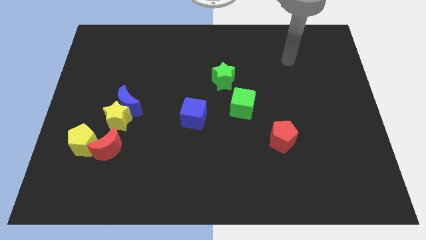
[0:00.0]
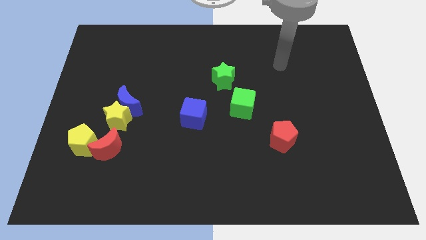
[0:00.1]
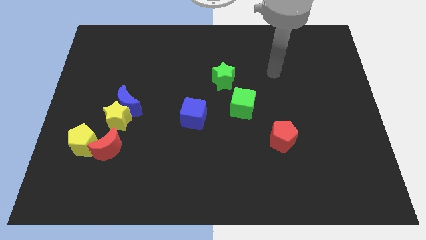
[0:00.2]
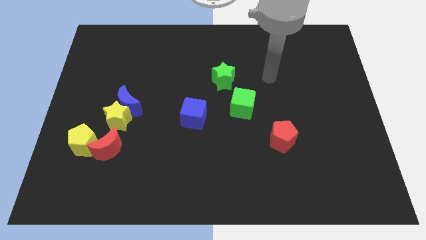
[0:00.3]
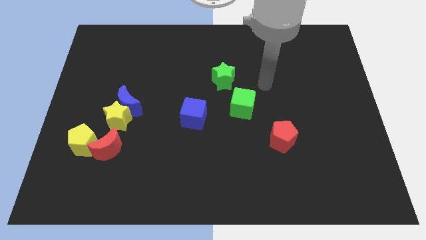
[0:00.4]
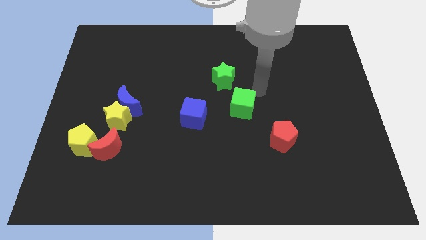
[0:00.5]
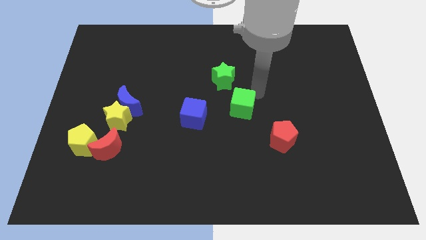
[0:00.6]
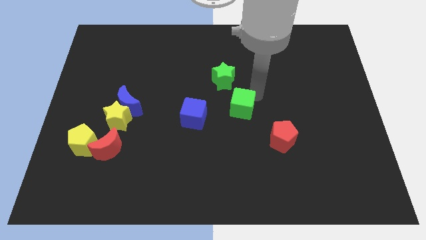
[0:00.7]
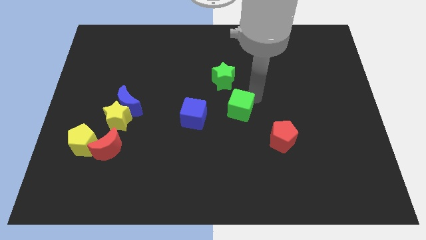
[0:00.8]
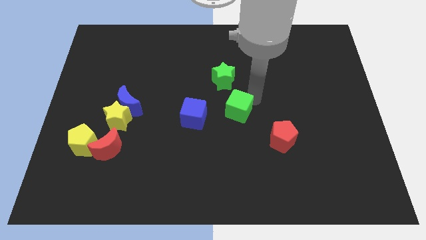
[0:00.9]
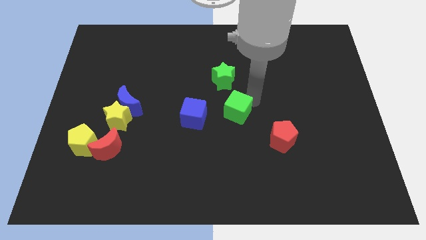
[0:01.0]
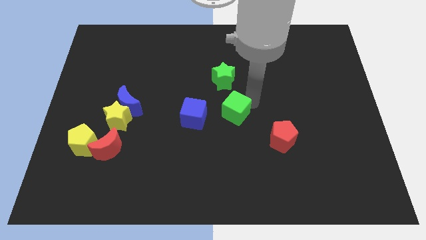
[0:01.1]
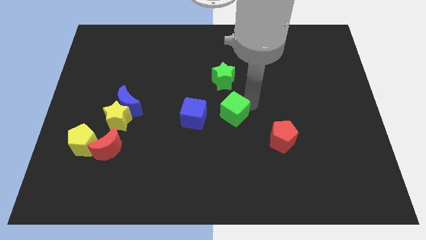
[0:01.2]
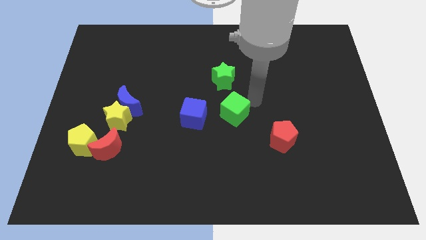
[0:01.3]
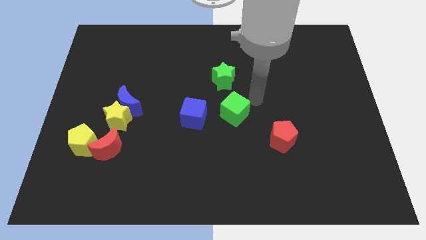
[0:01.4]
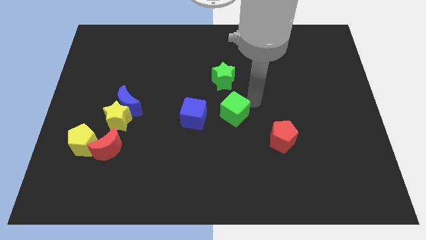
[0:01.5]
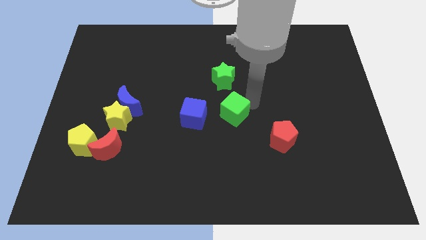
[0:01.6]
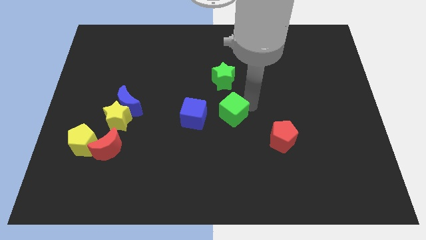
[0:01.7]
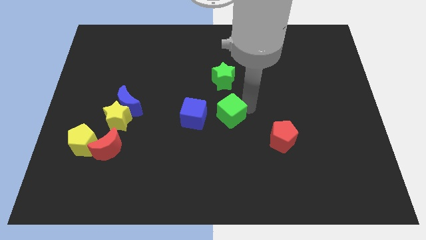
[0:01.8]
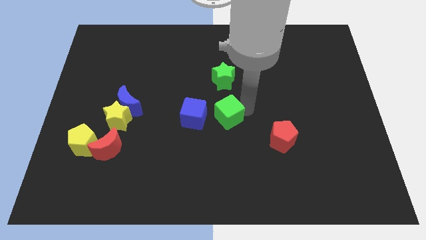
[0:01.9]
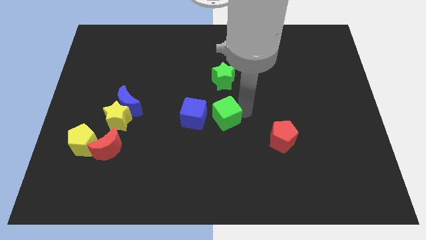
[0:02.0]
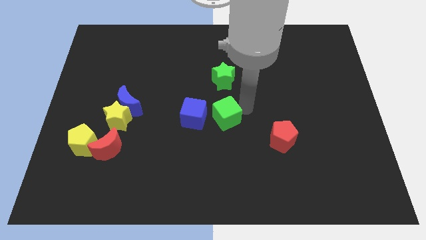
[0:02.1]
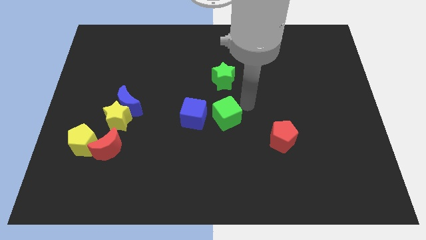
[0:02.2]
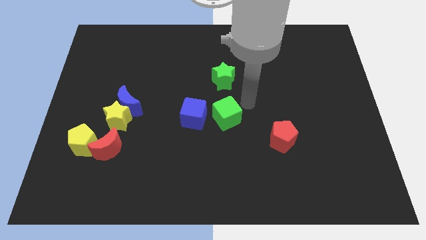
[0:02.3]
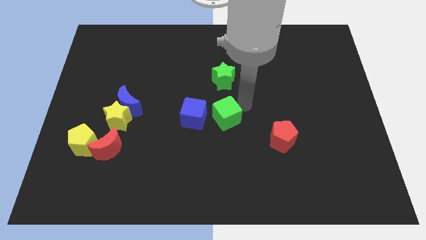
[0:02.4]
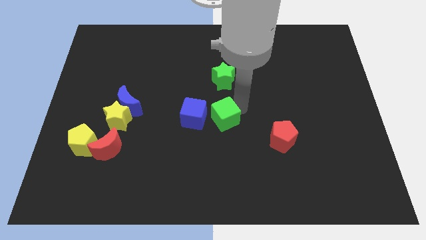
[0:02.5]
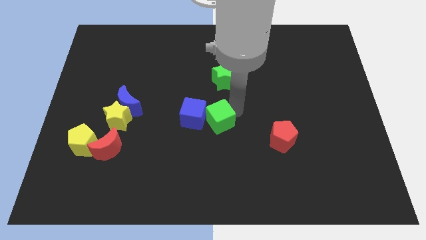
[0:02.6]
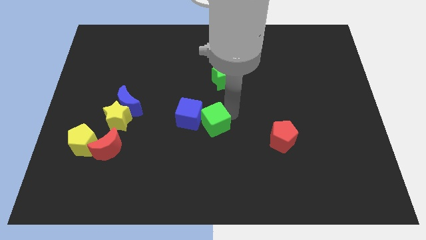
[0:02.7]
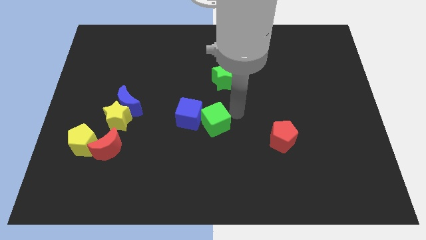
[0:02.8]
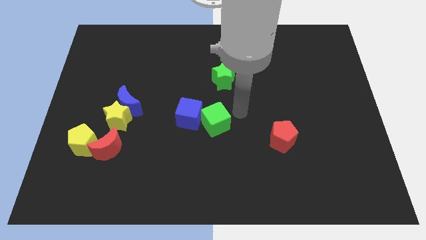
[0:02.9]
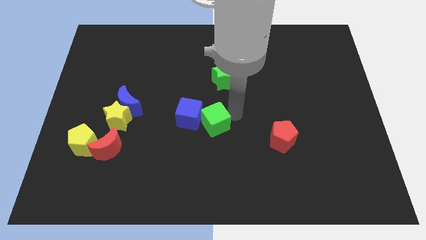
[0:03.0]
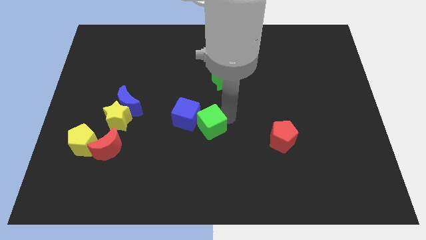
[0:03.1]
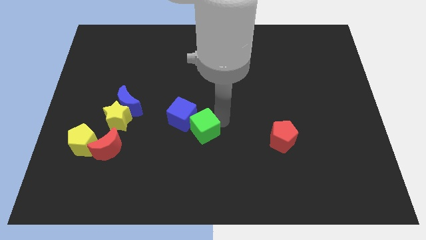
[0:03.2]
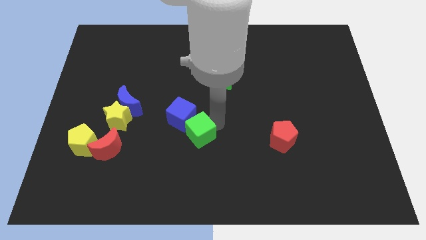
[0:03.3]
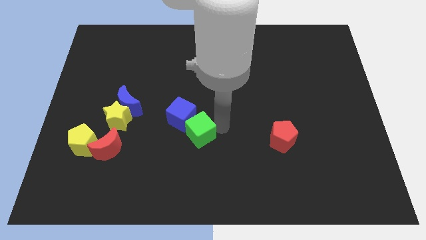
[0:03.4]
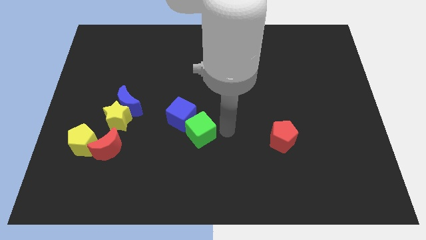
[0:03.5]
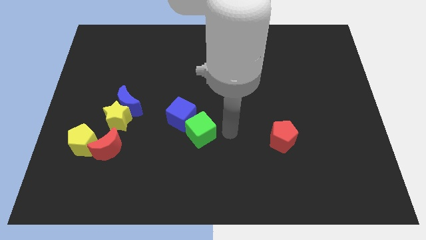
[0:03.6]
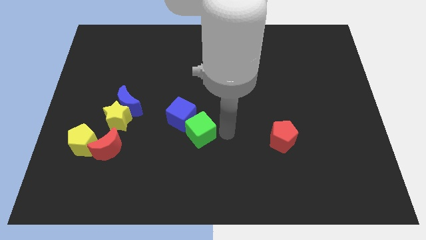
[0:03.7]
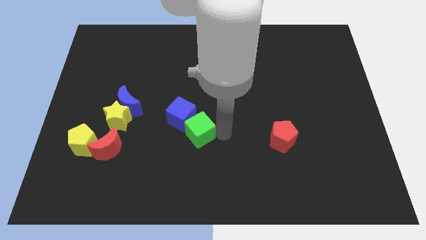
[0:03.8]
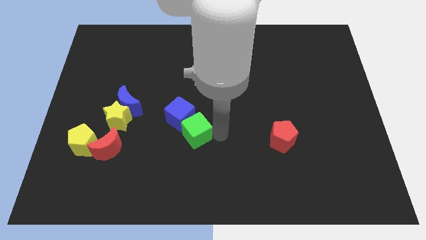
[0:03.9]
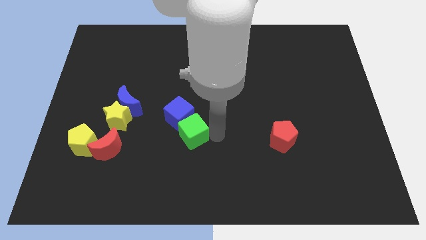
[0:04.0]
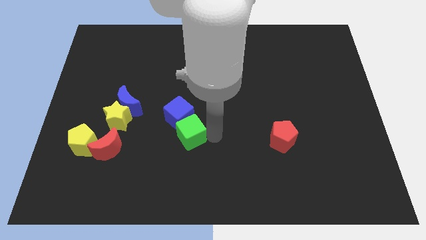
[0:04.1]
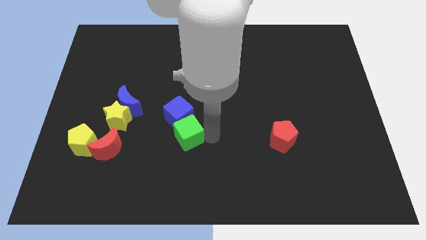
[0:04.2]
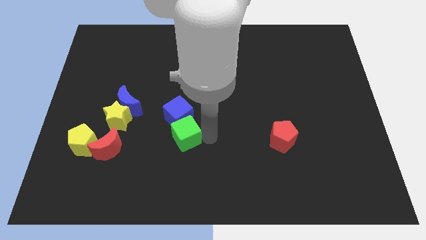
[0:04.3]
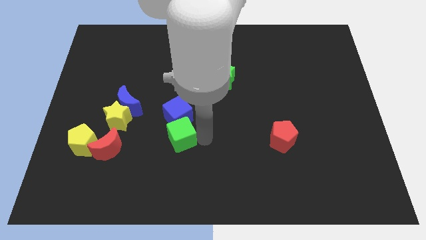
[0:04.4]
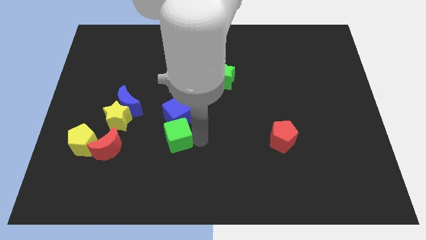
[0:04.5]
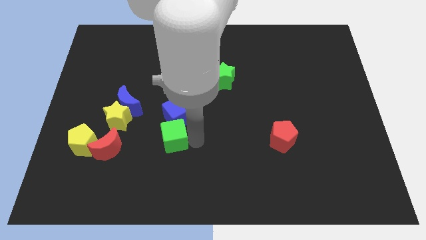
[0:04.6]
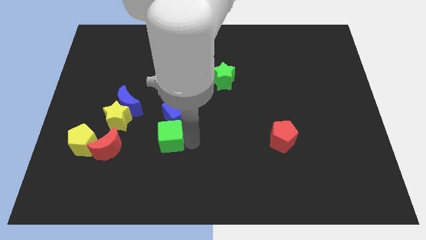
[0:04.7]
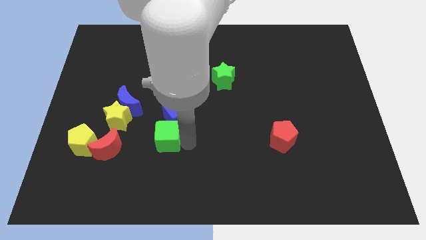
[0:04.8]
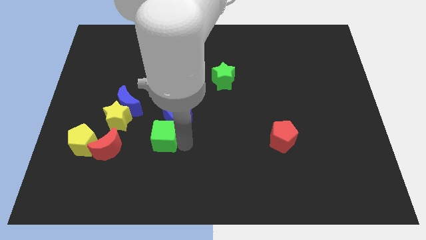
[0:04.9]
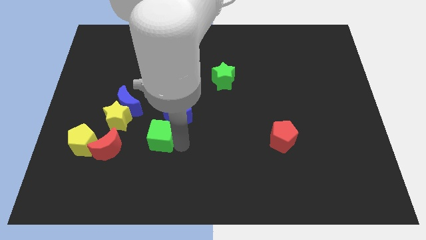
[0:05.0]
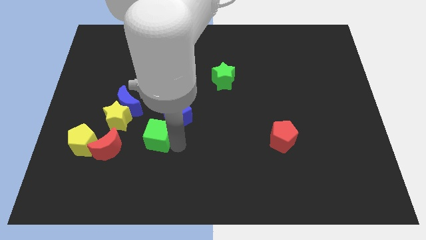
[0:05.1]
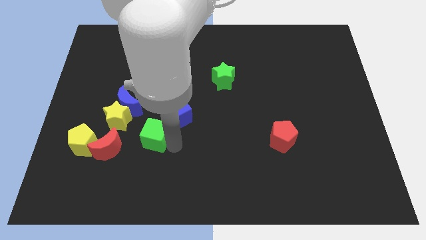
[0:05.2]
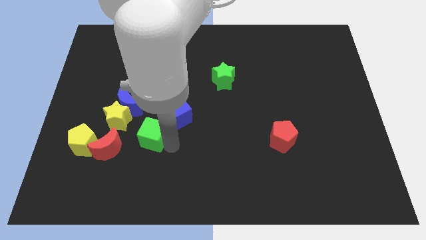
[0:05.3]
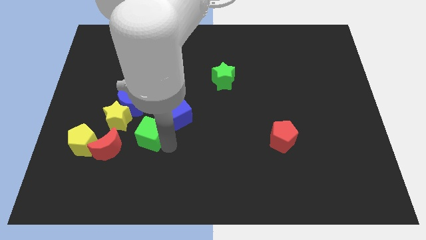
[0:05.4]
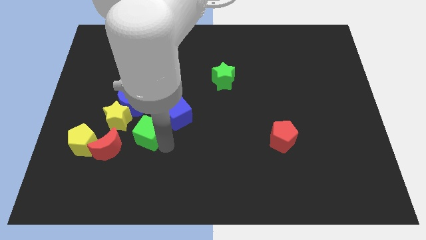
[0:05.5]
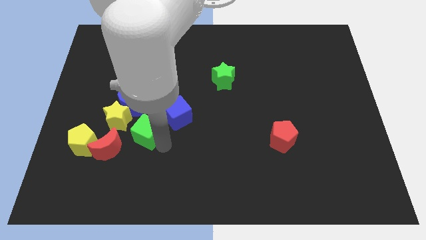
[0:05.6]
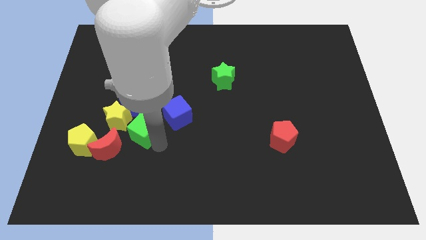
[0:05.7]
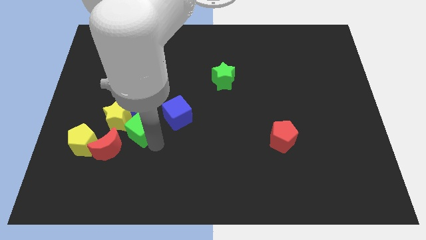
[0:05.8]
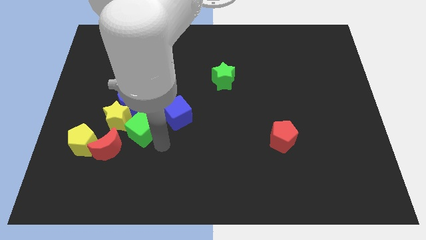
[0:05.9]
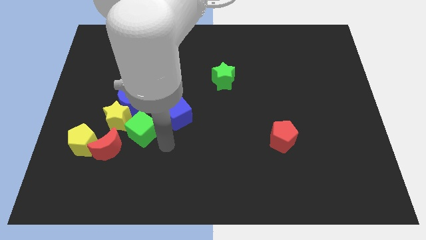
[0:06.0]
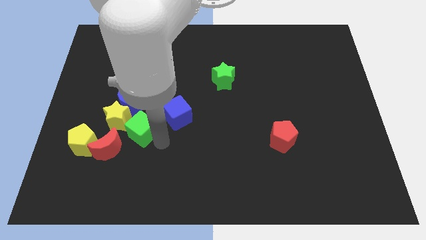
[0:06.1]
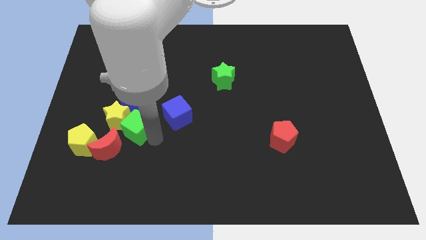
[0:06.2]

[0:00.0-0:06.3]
slide the green cube close to the yellow star

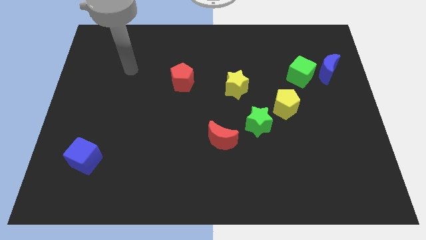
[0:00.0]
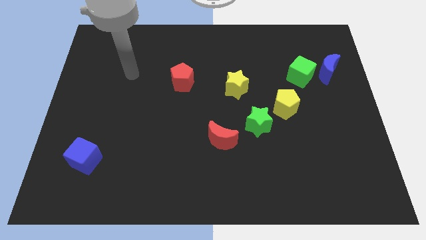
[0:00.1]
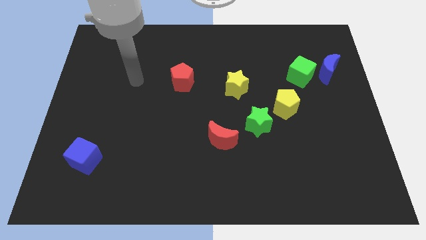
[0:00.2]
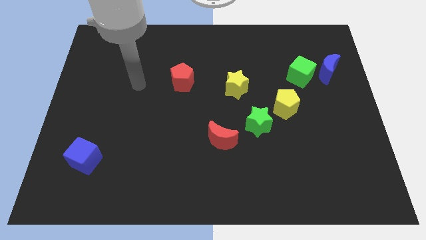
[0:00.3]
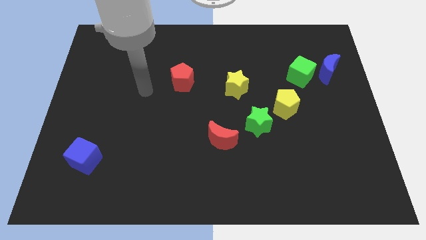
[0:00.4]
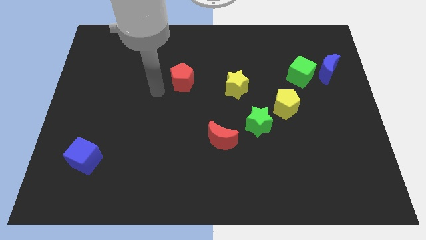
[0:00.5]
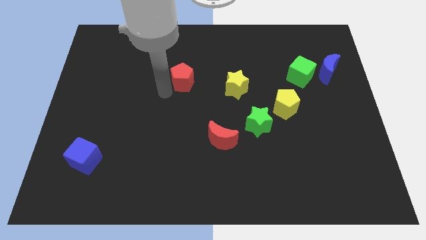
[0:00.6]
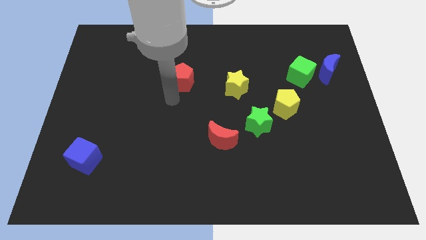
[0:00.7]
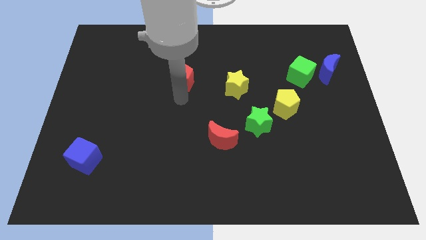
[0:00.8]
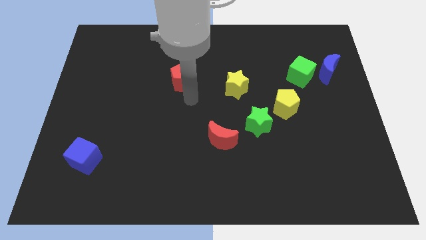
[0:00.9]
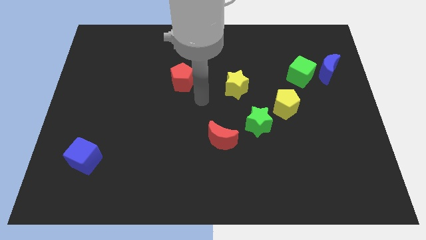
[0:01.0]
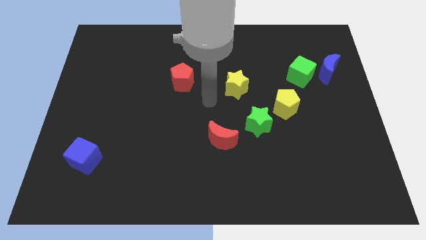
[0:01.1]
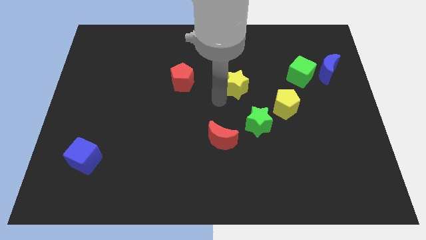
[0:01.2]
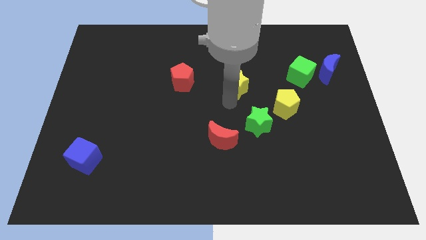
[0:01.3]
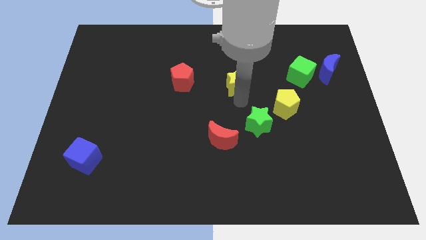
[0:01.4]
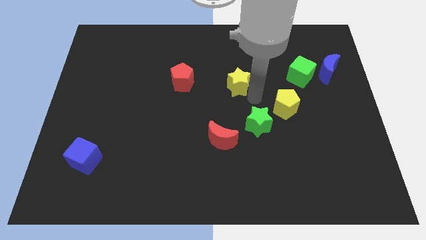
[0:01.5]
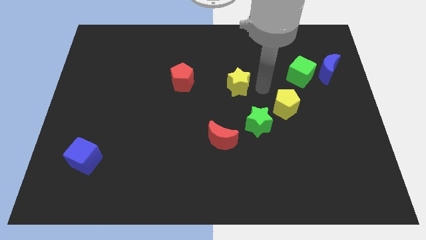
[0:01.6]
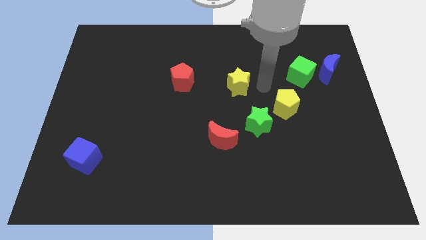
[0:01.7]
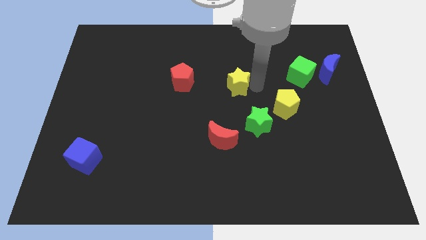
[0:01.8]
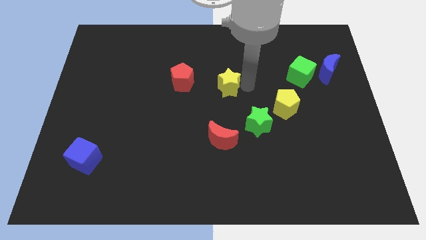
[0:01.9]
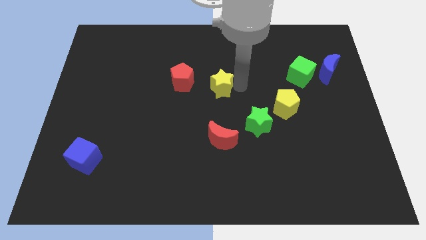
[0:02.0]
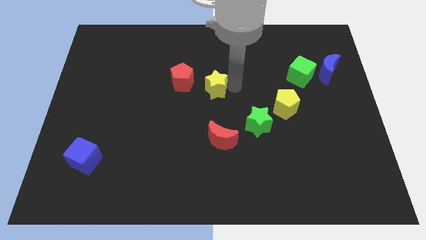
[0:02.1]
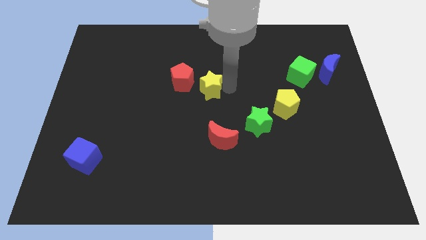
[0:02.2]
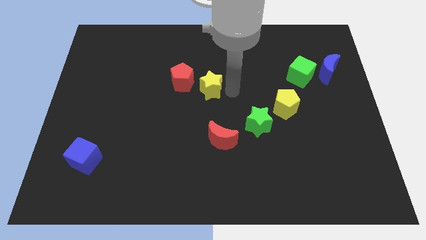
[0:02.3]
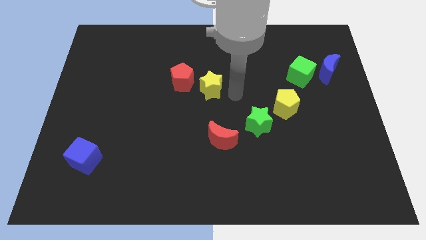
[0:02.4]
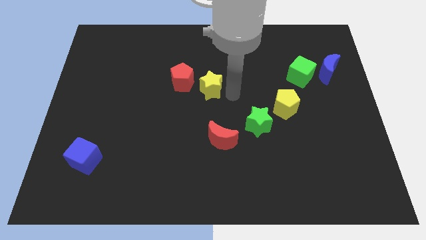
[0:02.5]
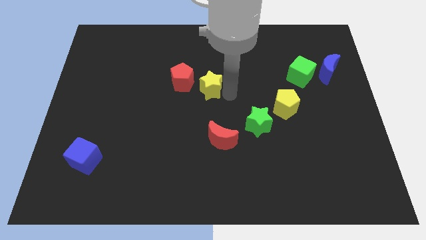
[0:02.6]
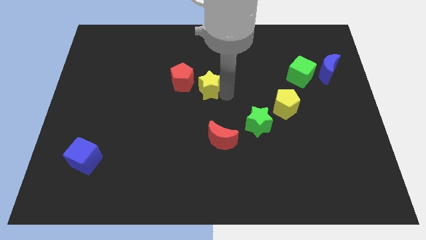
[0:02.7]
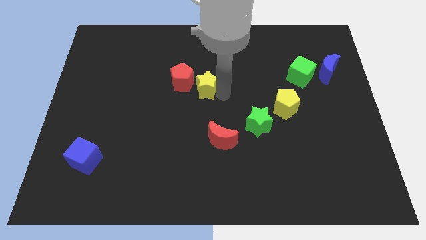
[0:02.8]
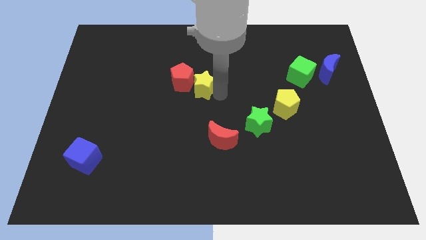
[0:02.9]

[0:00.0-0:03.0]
put the yellow star towards the red pentagon
